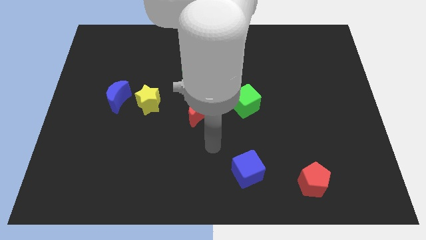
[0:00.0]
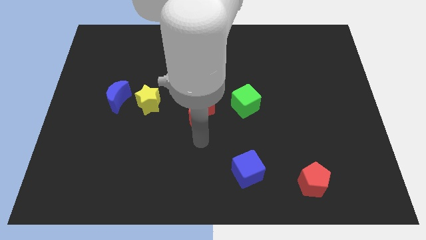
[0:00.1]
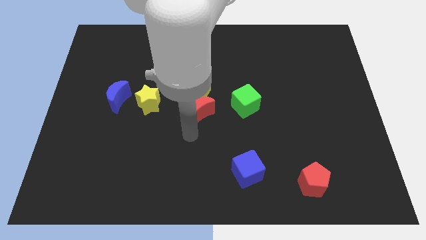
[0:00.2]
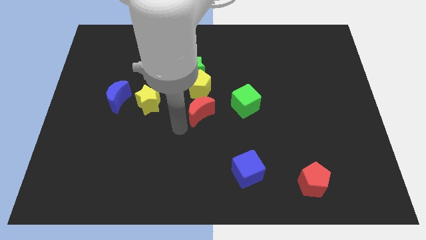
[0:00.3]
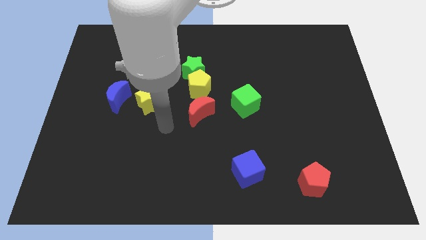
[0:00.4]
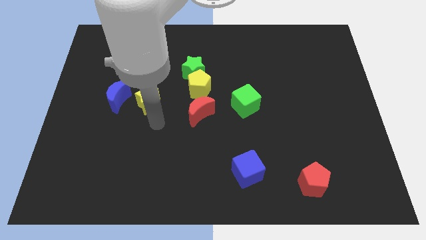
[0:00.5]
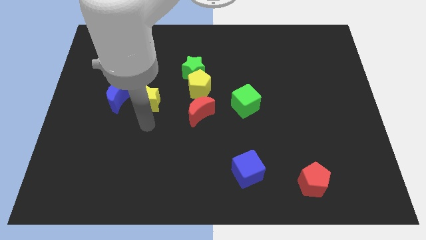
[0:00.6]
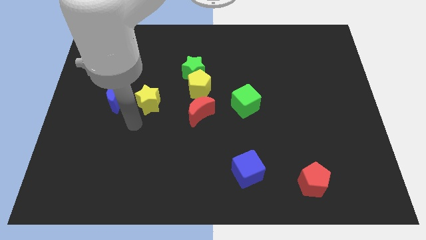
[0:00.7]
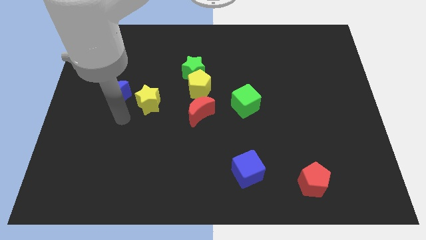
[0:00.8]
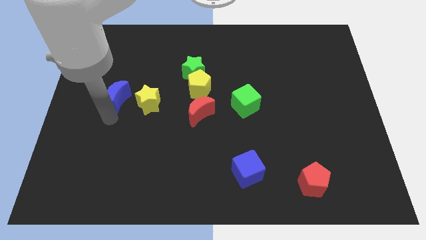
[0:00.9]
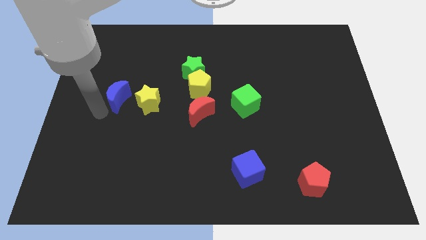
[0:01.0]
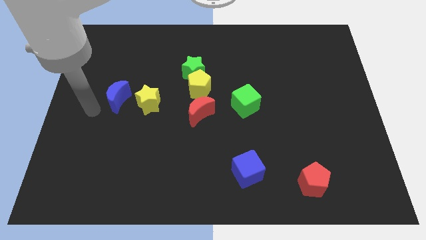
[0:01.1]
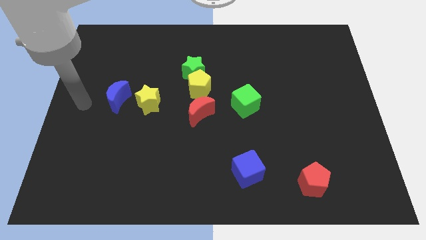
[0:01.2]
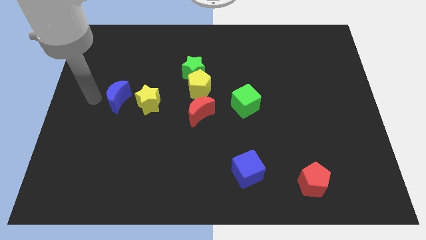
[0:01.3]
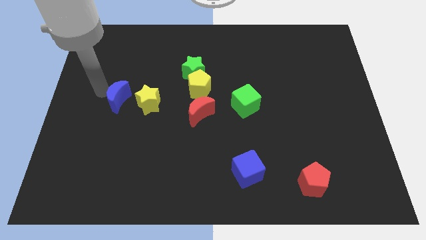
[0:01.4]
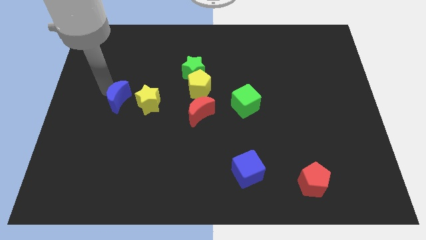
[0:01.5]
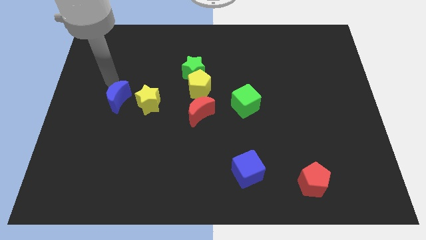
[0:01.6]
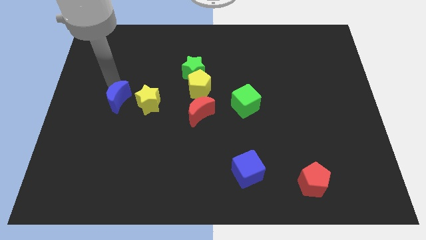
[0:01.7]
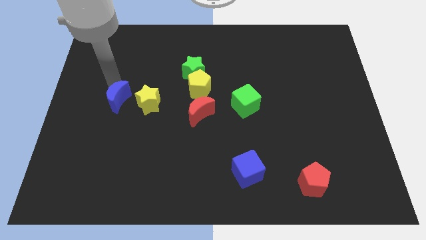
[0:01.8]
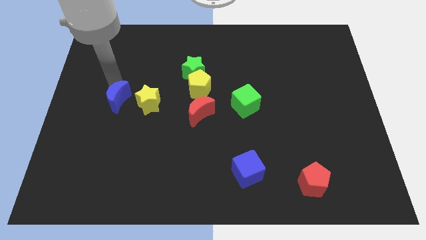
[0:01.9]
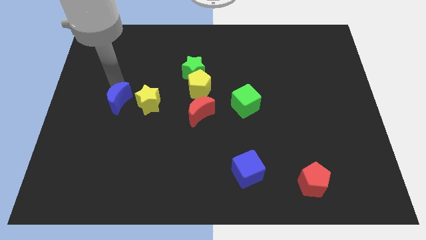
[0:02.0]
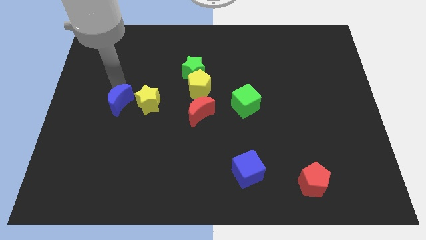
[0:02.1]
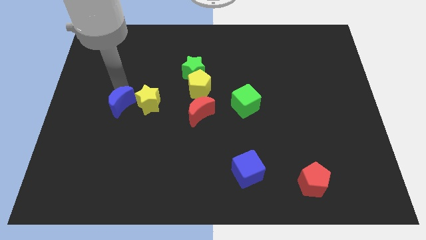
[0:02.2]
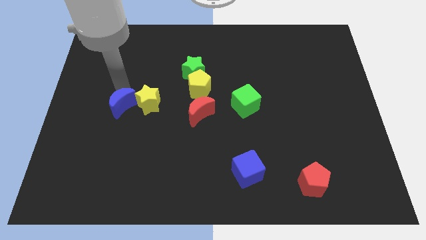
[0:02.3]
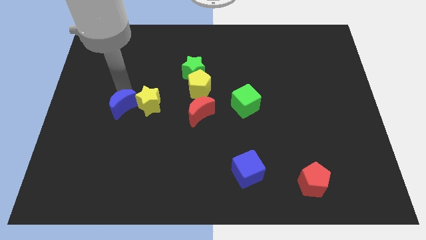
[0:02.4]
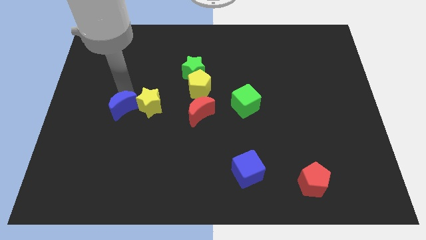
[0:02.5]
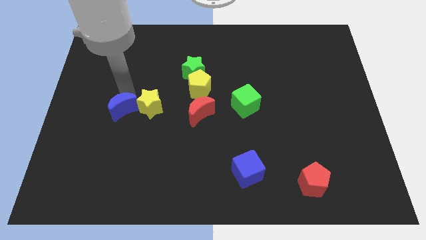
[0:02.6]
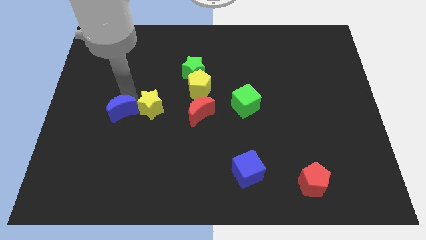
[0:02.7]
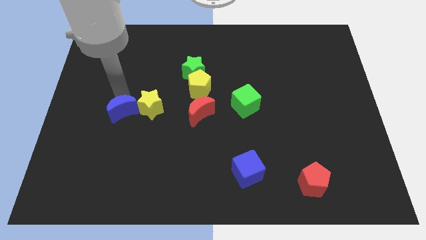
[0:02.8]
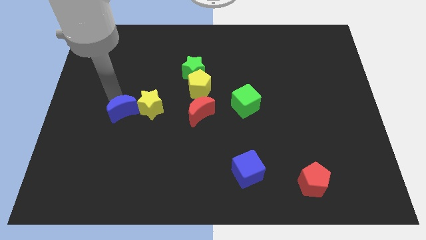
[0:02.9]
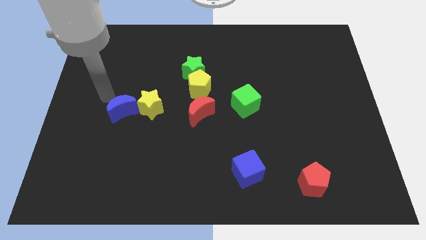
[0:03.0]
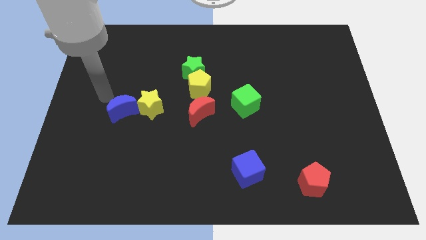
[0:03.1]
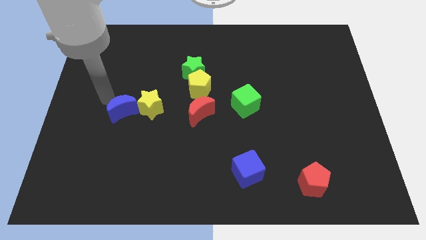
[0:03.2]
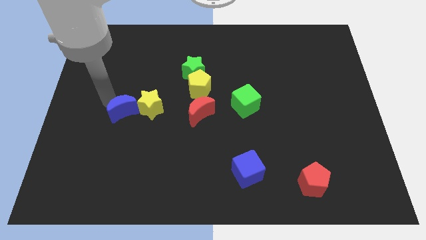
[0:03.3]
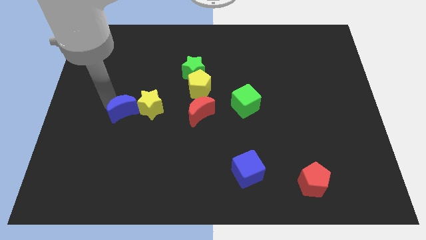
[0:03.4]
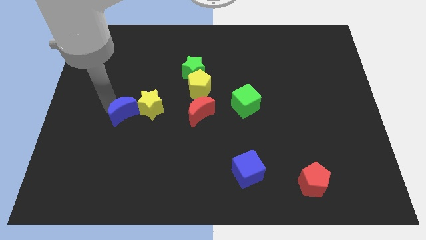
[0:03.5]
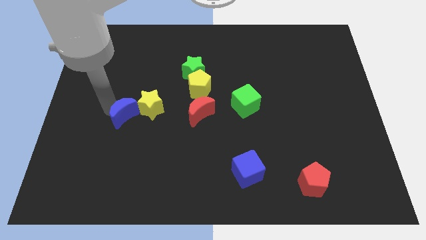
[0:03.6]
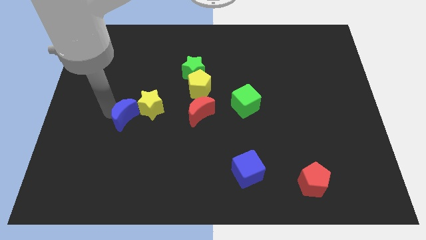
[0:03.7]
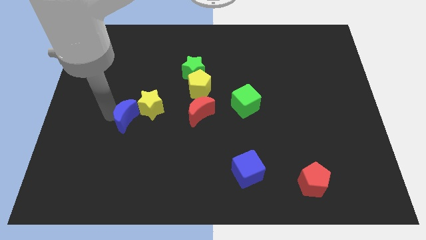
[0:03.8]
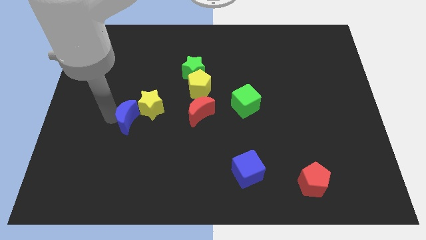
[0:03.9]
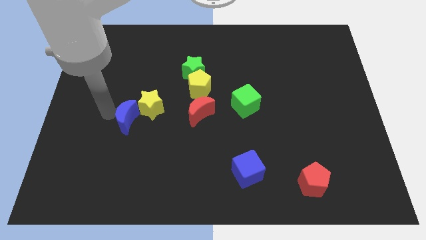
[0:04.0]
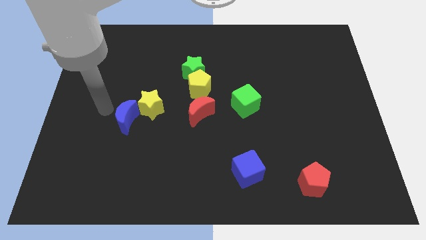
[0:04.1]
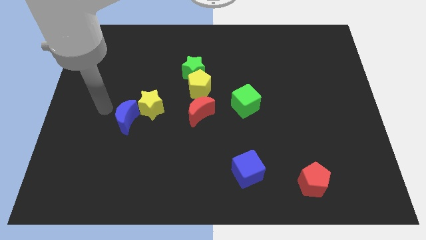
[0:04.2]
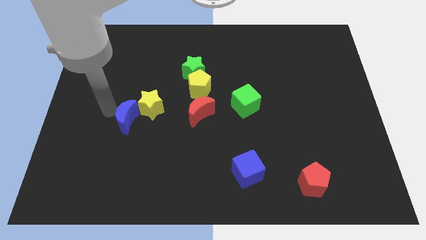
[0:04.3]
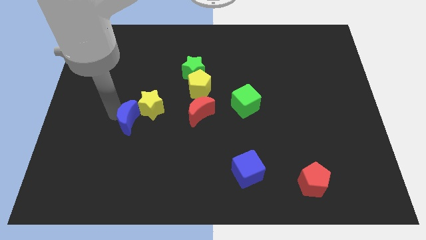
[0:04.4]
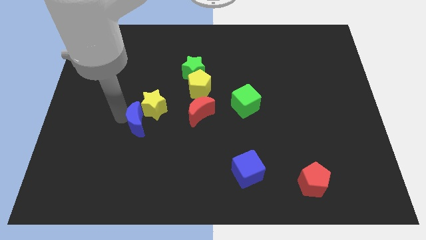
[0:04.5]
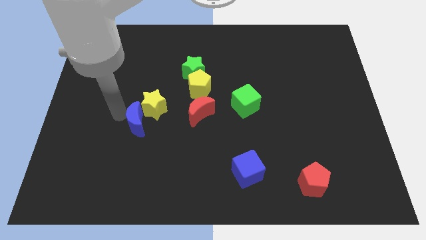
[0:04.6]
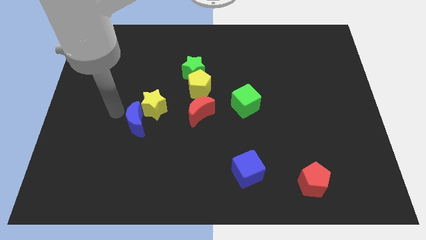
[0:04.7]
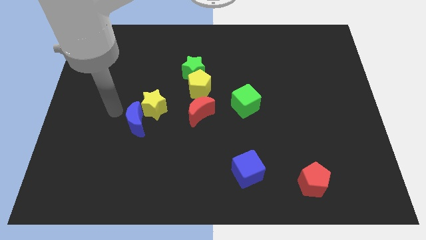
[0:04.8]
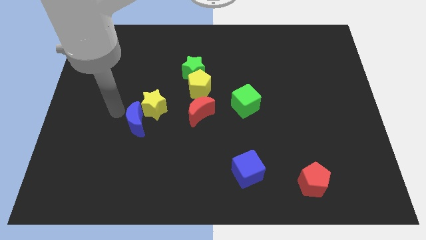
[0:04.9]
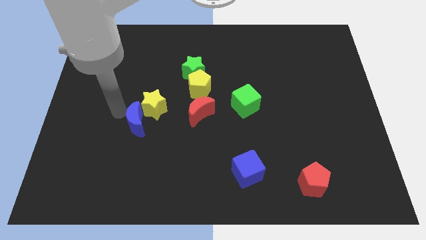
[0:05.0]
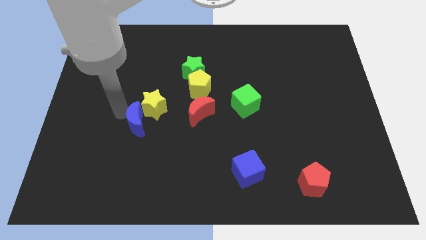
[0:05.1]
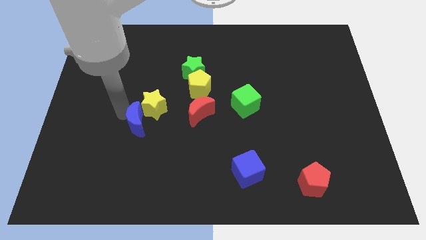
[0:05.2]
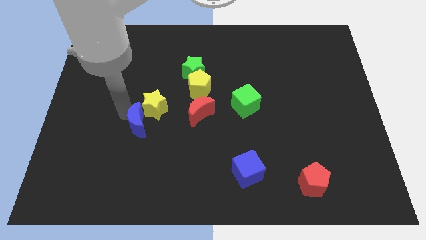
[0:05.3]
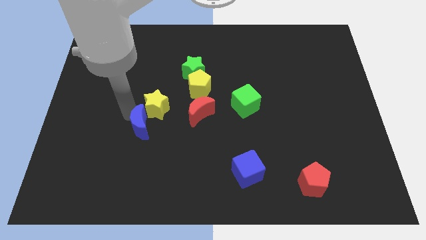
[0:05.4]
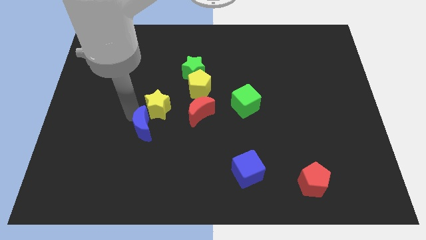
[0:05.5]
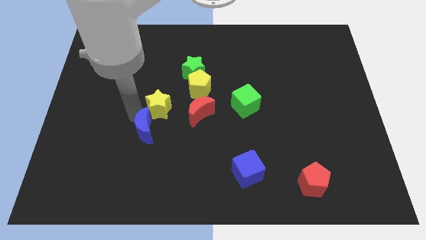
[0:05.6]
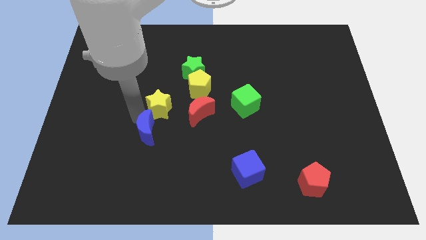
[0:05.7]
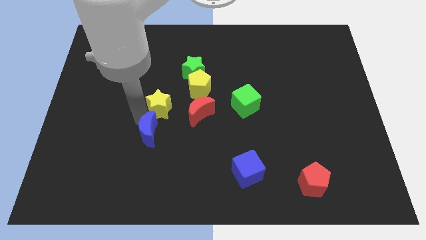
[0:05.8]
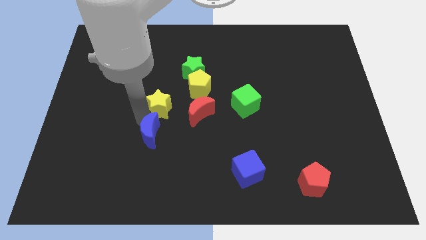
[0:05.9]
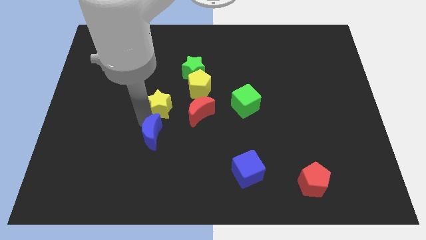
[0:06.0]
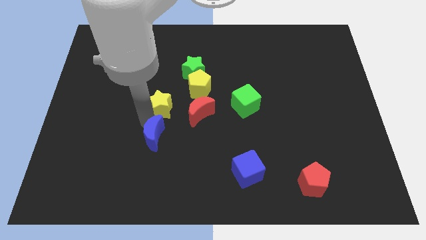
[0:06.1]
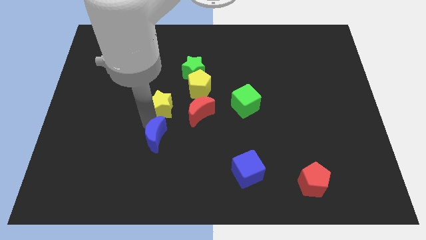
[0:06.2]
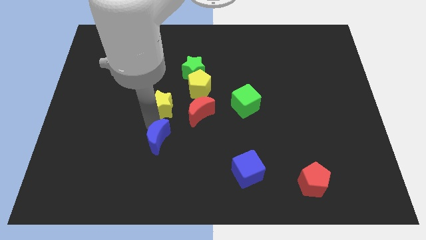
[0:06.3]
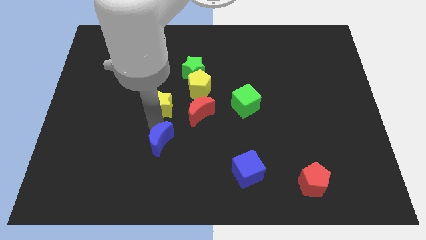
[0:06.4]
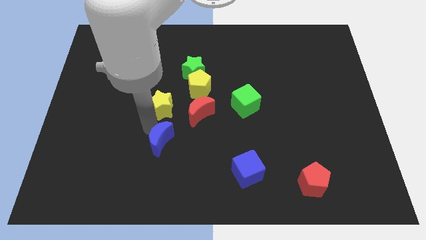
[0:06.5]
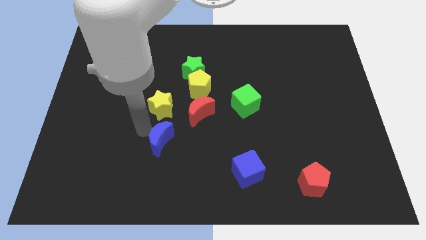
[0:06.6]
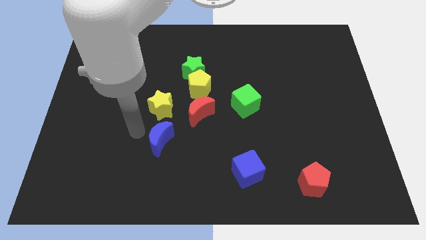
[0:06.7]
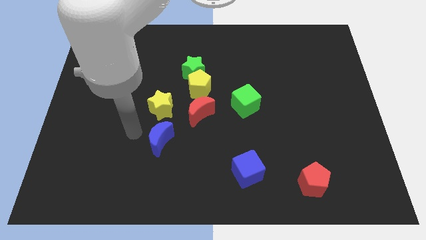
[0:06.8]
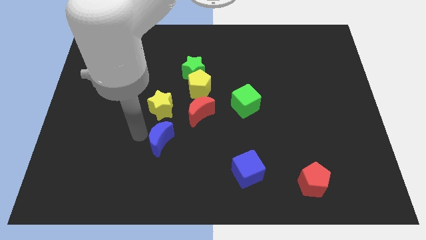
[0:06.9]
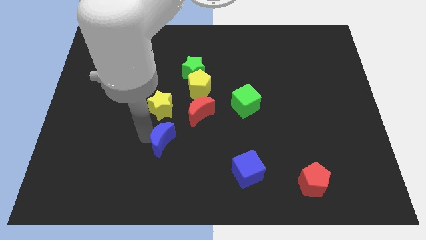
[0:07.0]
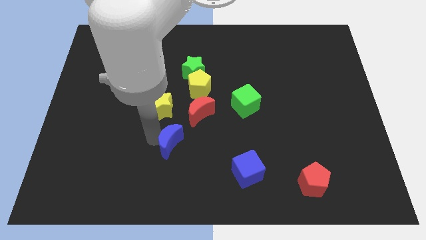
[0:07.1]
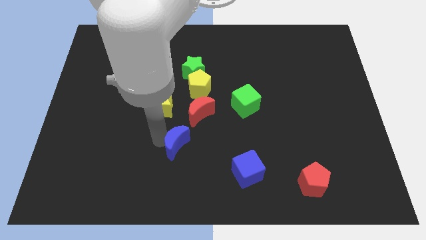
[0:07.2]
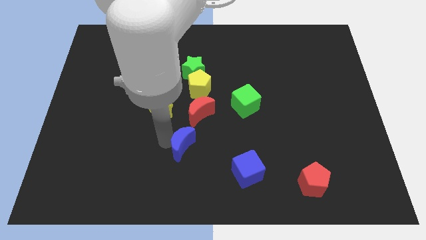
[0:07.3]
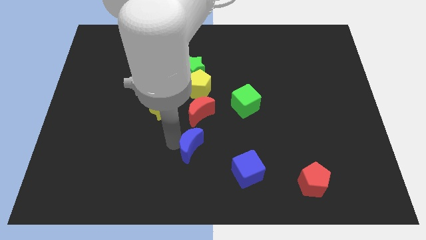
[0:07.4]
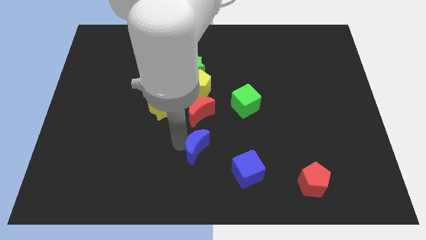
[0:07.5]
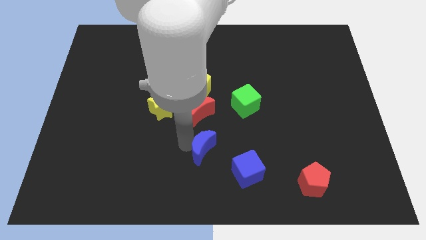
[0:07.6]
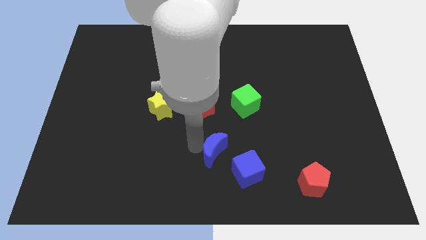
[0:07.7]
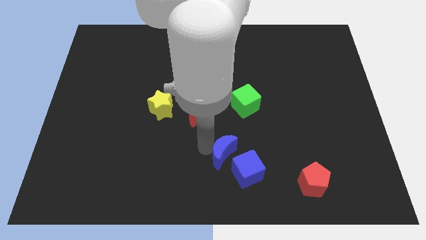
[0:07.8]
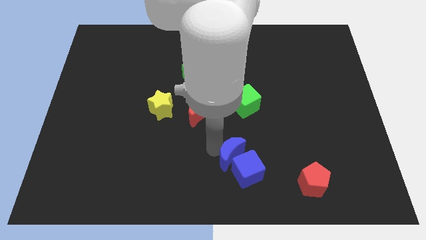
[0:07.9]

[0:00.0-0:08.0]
push the blue moon next to the blue cube
